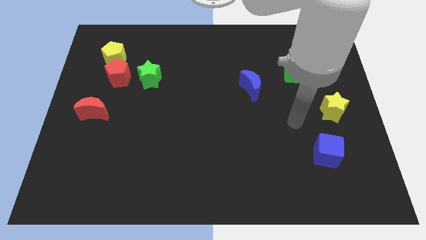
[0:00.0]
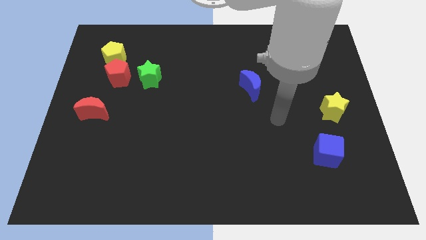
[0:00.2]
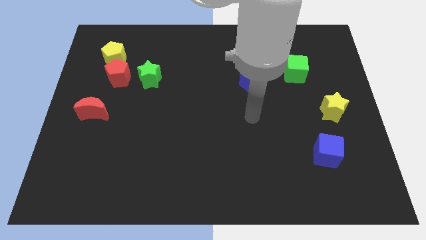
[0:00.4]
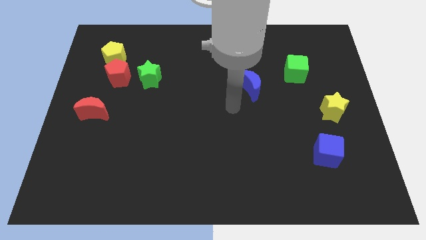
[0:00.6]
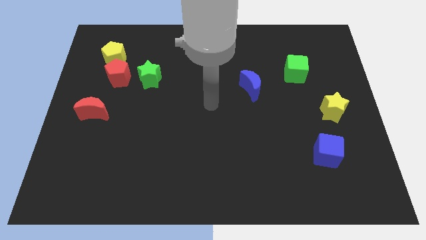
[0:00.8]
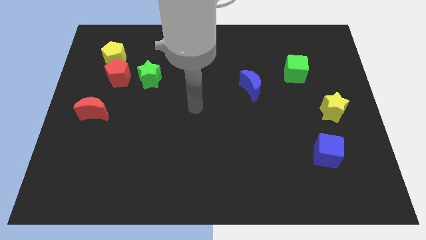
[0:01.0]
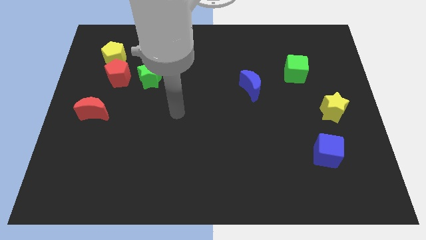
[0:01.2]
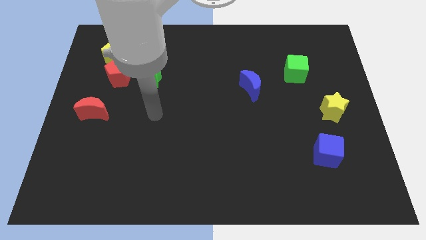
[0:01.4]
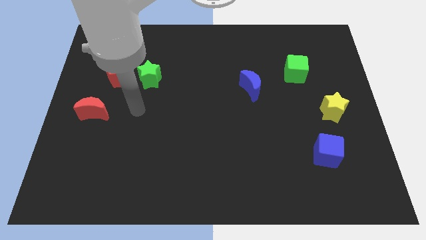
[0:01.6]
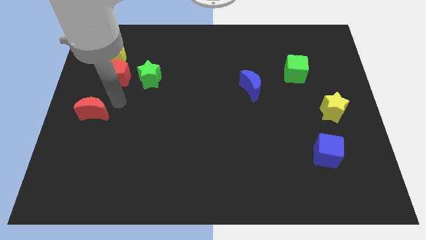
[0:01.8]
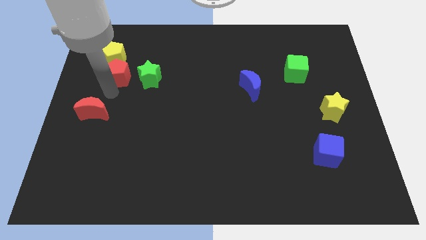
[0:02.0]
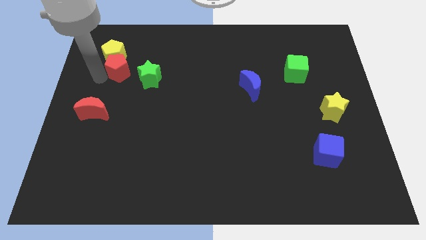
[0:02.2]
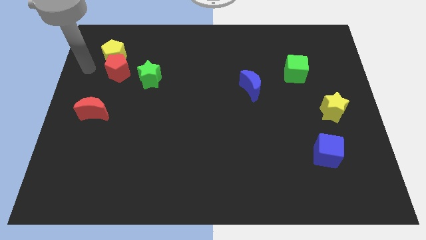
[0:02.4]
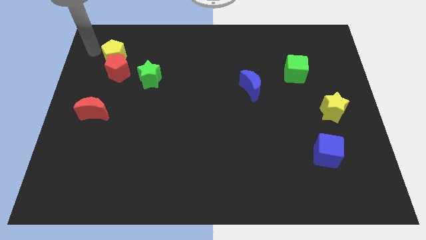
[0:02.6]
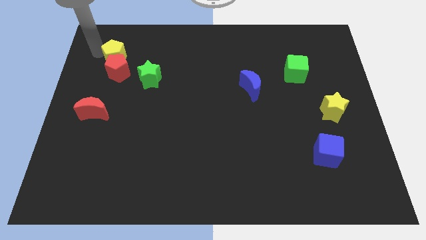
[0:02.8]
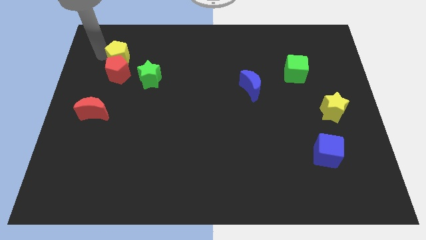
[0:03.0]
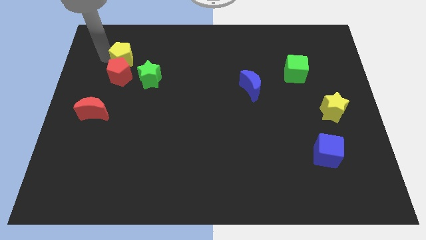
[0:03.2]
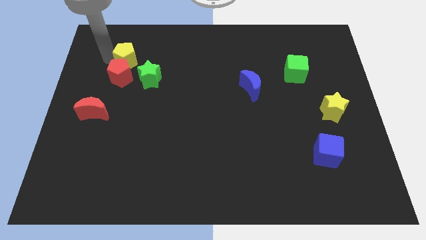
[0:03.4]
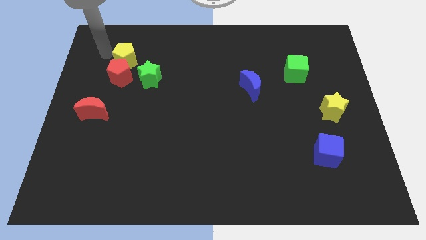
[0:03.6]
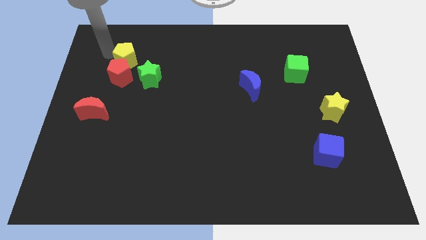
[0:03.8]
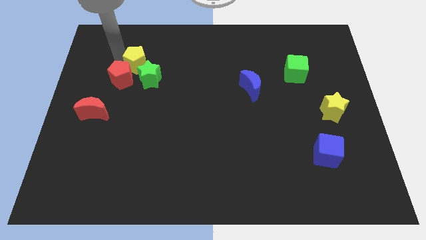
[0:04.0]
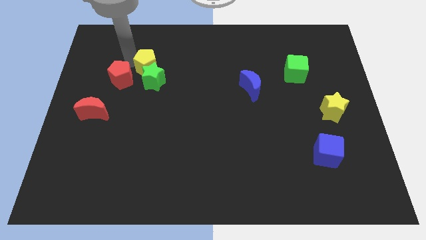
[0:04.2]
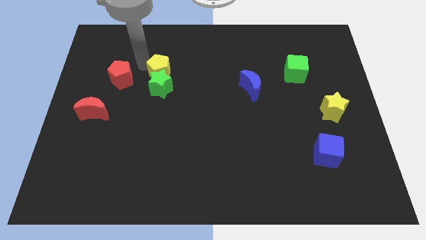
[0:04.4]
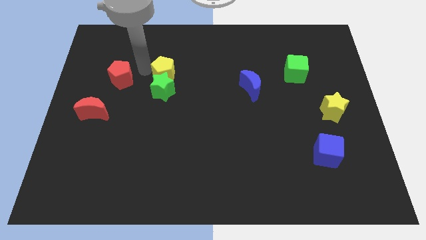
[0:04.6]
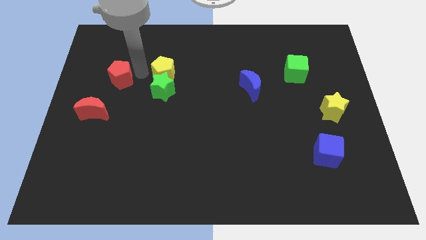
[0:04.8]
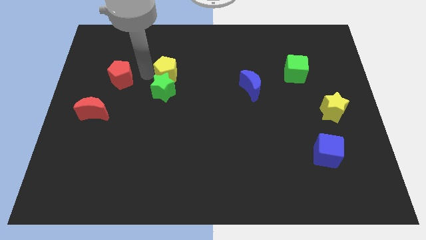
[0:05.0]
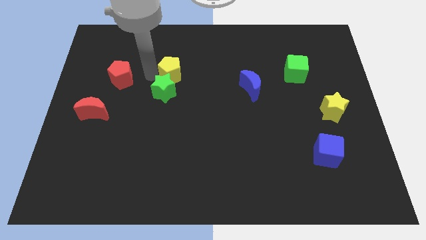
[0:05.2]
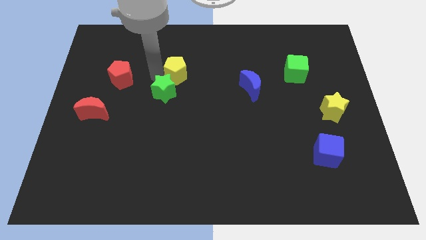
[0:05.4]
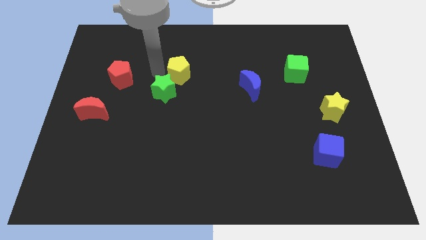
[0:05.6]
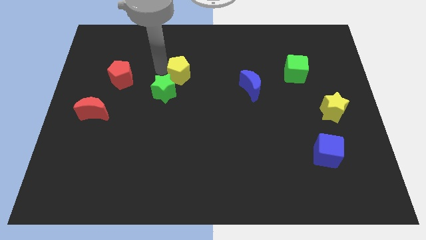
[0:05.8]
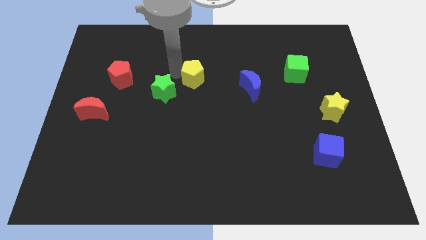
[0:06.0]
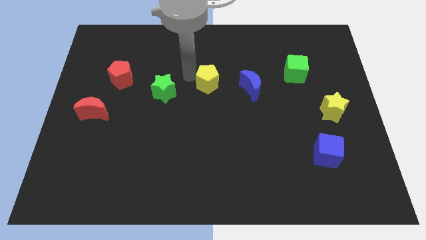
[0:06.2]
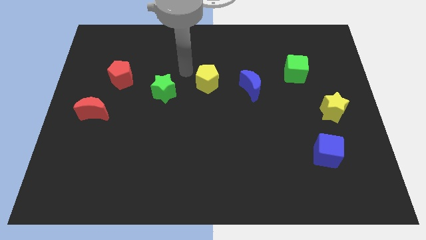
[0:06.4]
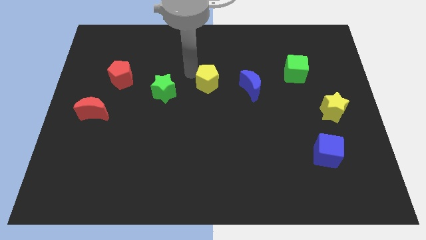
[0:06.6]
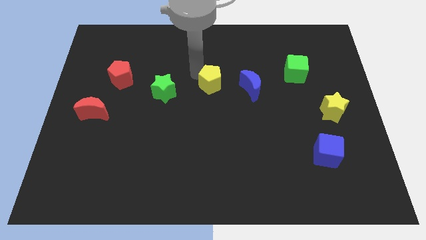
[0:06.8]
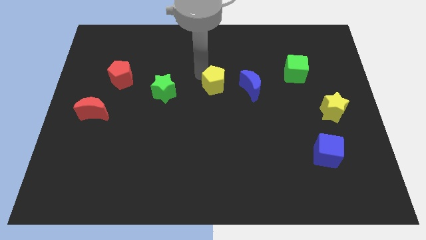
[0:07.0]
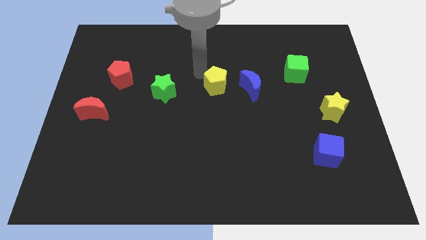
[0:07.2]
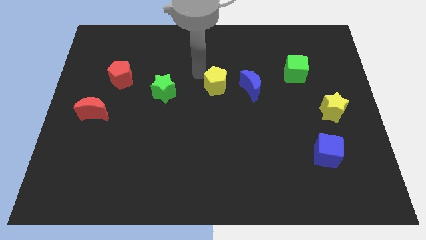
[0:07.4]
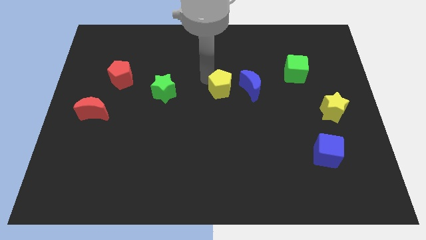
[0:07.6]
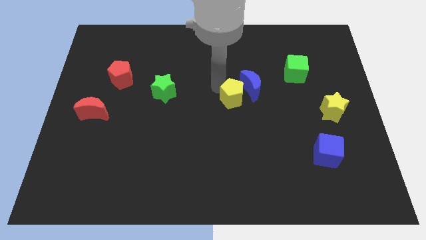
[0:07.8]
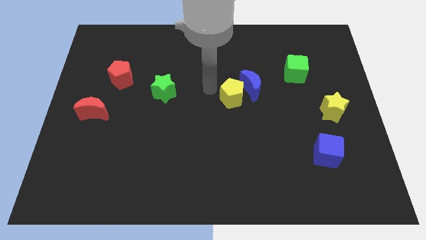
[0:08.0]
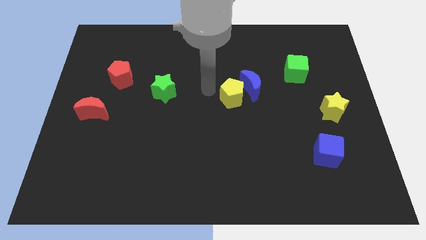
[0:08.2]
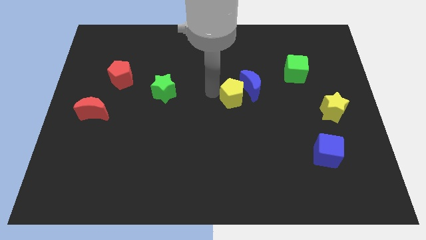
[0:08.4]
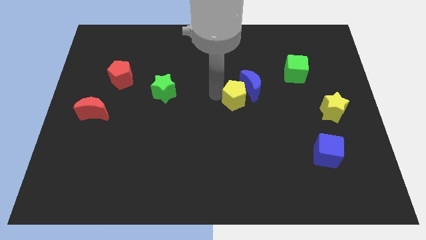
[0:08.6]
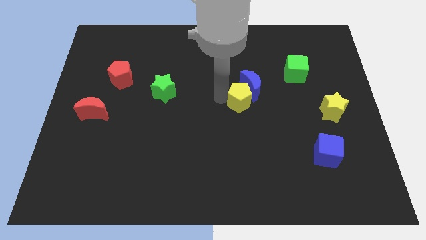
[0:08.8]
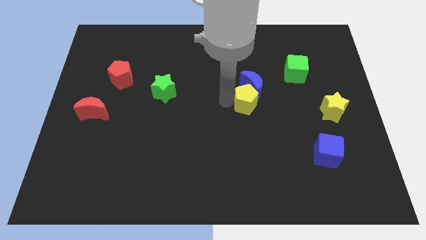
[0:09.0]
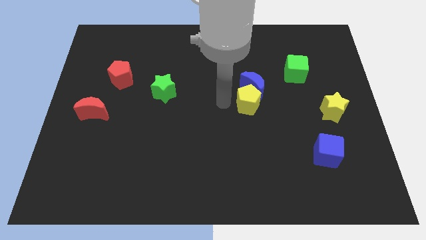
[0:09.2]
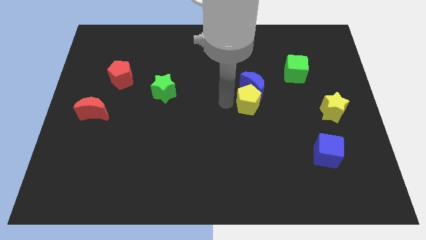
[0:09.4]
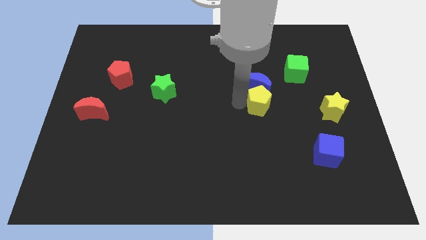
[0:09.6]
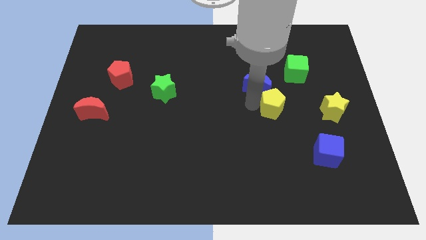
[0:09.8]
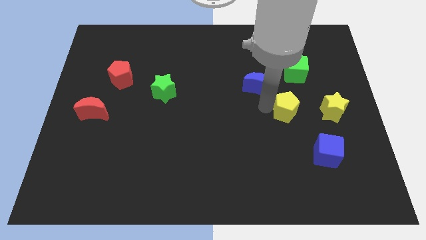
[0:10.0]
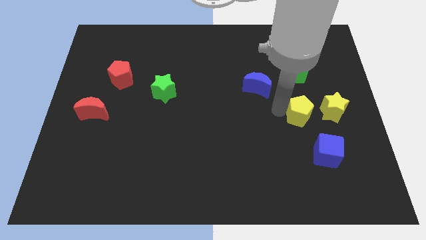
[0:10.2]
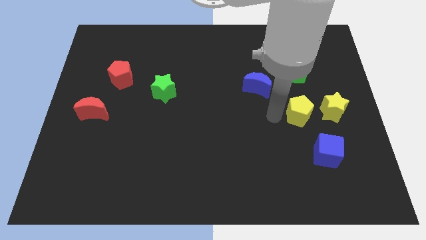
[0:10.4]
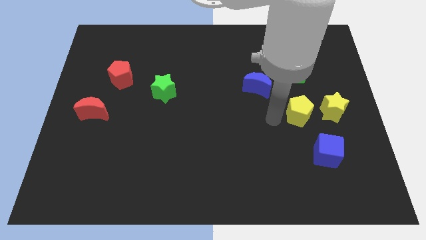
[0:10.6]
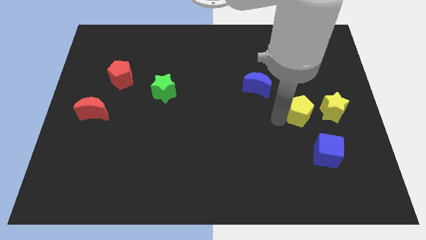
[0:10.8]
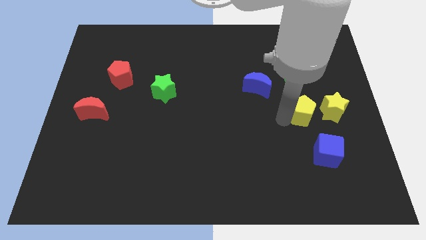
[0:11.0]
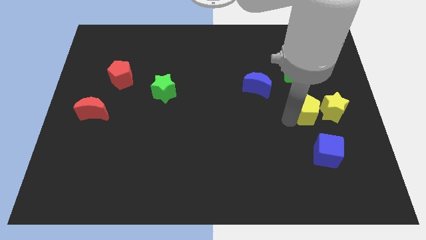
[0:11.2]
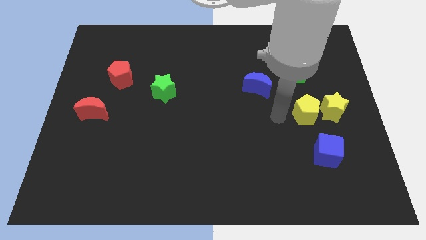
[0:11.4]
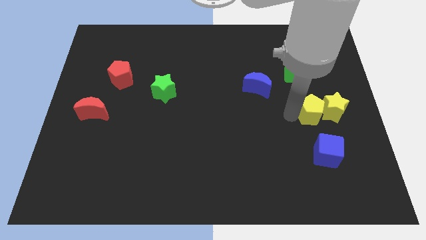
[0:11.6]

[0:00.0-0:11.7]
put the yellow pentagon to the yellow star

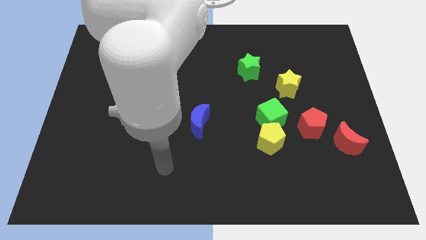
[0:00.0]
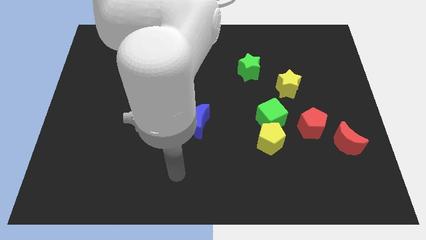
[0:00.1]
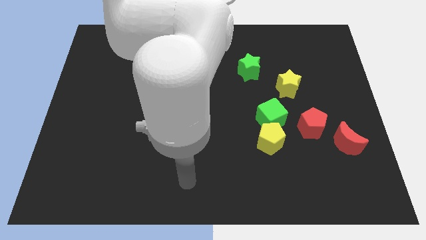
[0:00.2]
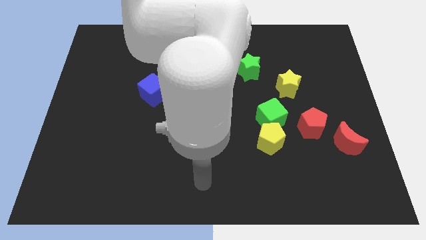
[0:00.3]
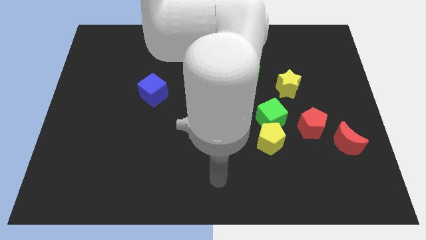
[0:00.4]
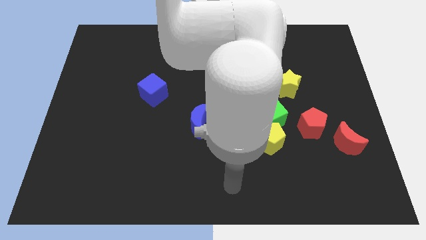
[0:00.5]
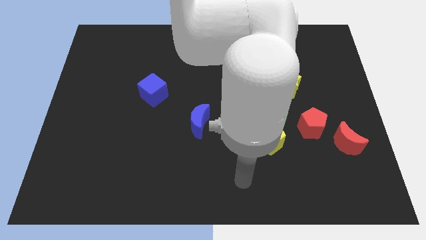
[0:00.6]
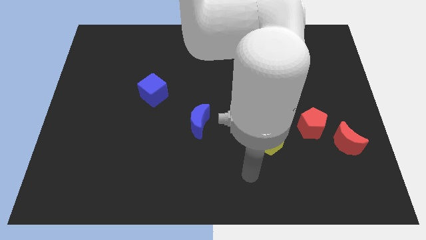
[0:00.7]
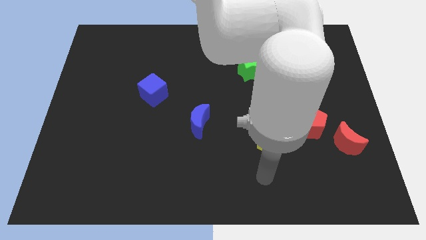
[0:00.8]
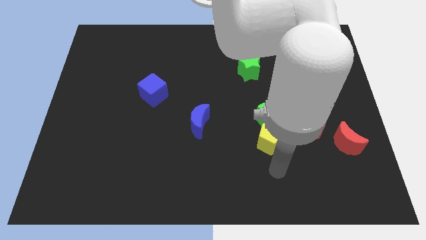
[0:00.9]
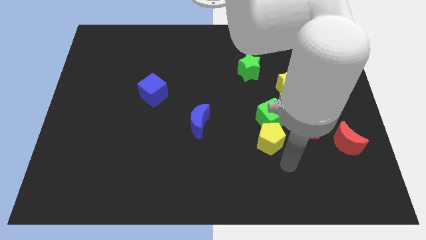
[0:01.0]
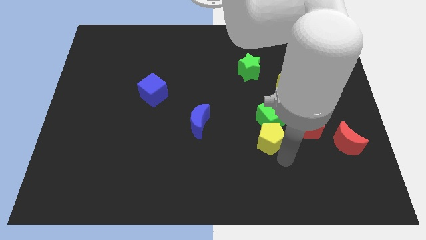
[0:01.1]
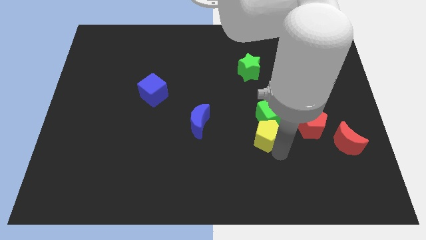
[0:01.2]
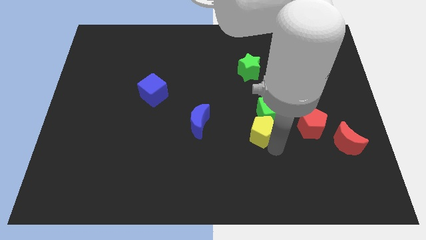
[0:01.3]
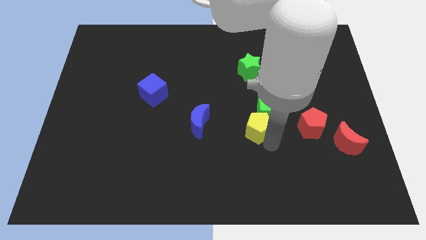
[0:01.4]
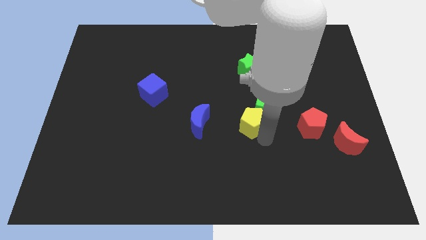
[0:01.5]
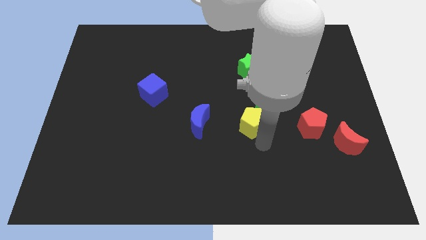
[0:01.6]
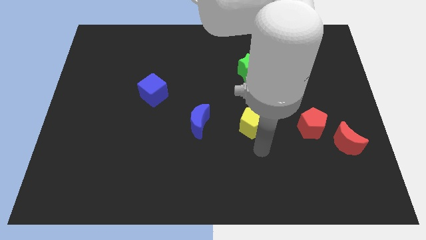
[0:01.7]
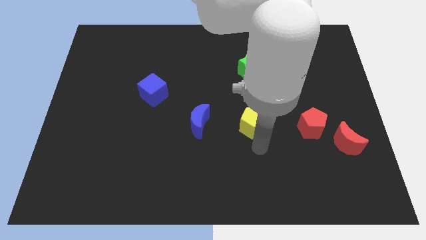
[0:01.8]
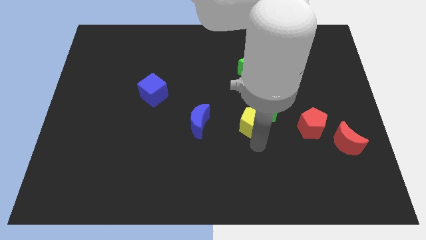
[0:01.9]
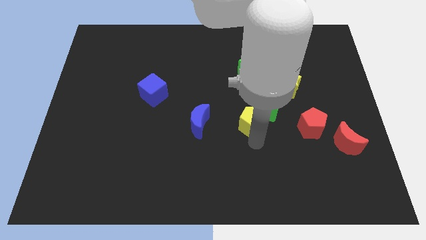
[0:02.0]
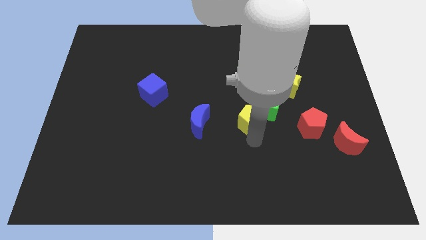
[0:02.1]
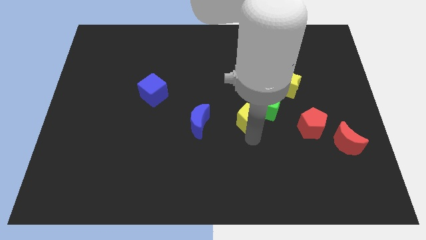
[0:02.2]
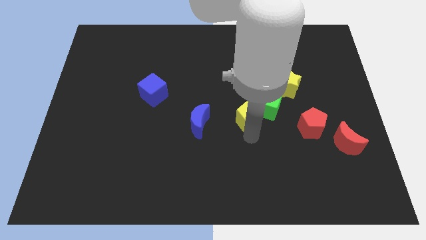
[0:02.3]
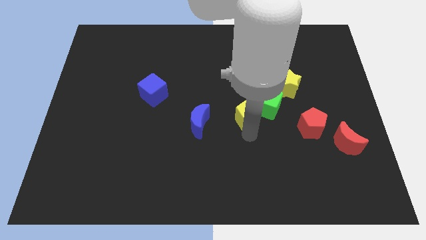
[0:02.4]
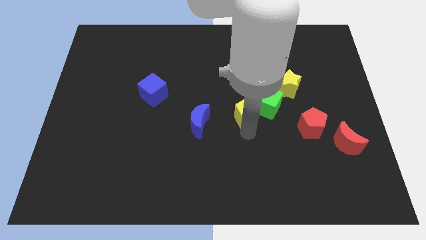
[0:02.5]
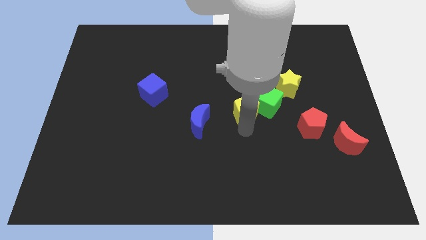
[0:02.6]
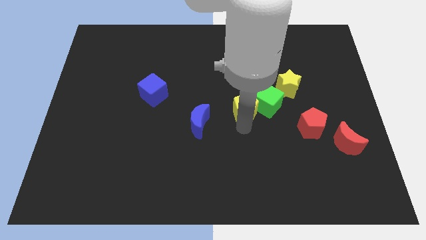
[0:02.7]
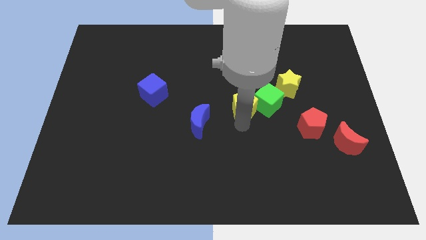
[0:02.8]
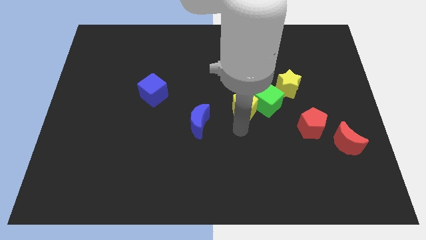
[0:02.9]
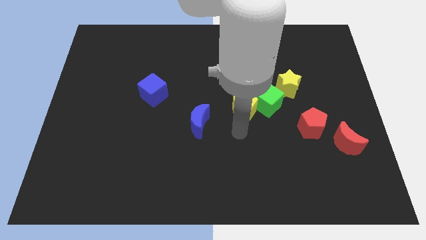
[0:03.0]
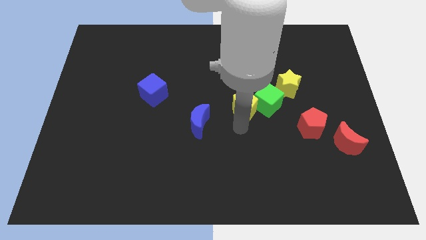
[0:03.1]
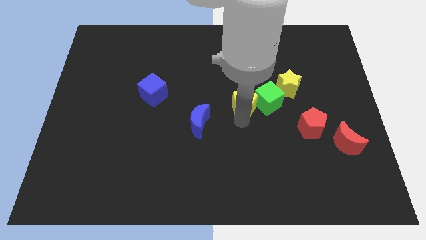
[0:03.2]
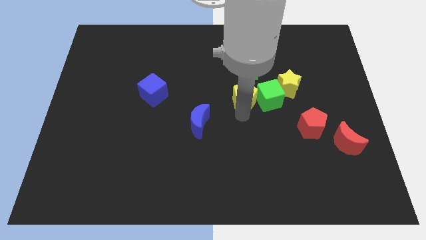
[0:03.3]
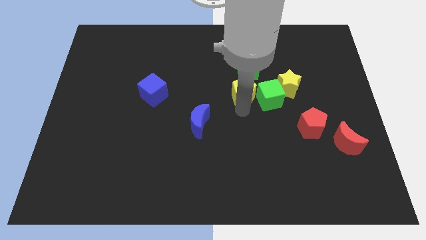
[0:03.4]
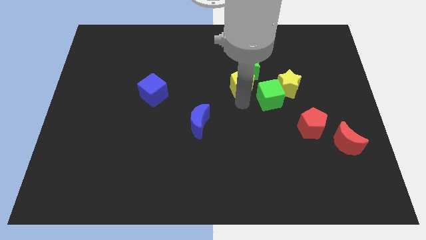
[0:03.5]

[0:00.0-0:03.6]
slide the yellow pentagon next to the green star
